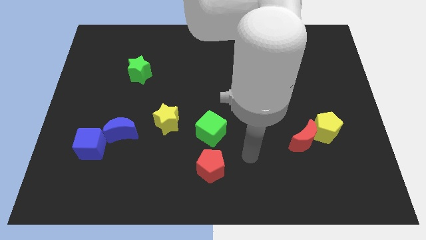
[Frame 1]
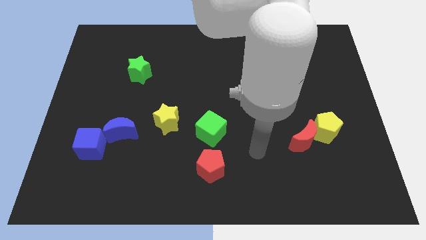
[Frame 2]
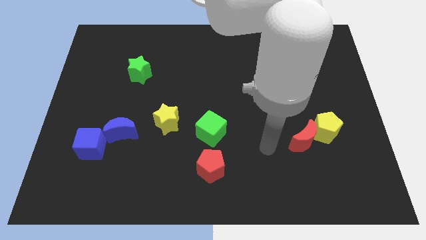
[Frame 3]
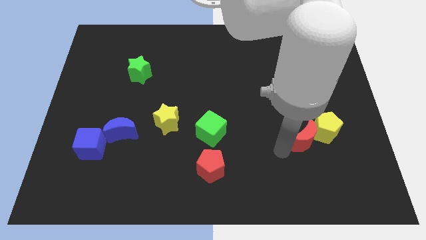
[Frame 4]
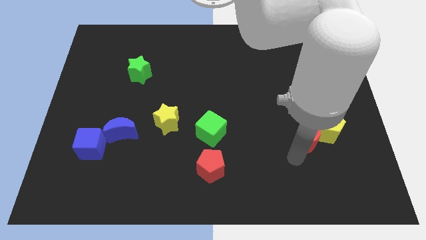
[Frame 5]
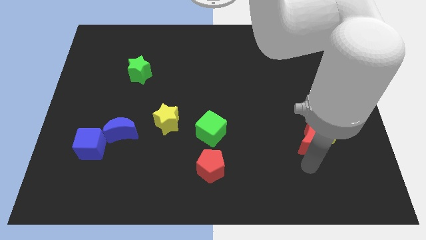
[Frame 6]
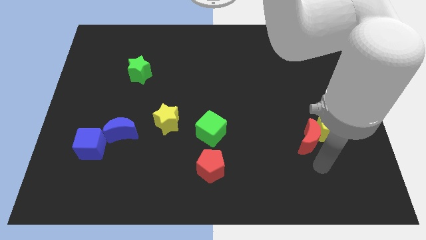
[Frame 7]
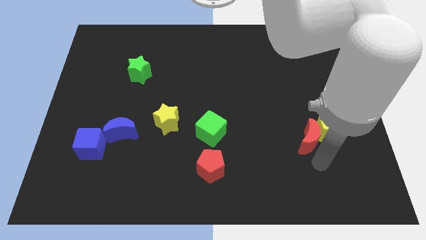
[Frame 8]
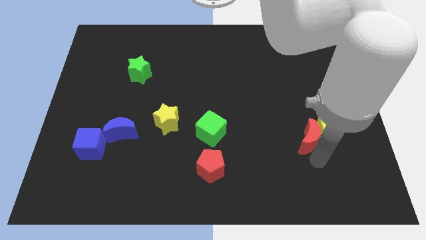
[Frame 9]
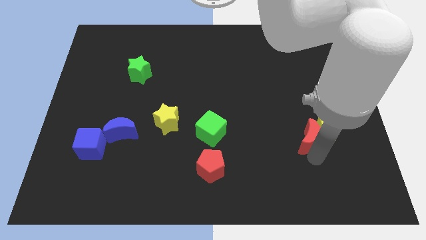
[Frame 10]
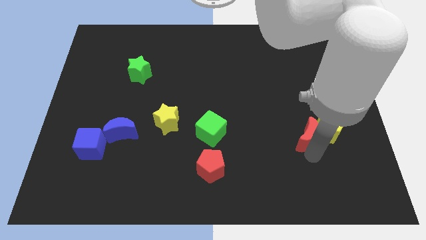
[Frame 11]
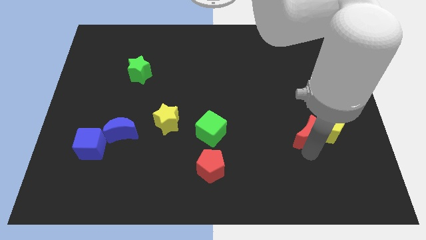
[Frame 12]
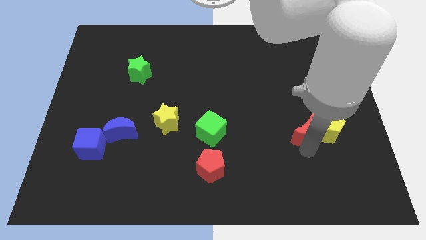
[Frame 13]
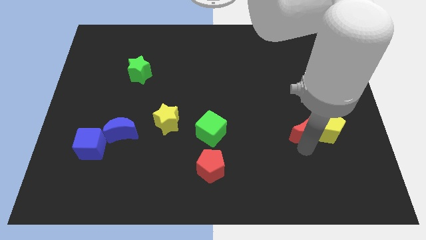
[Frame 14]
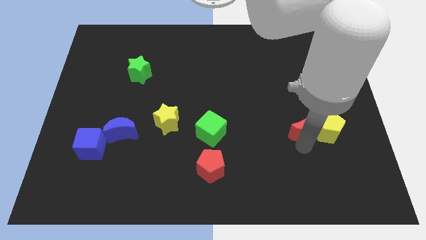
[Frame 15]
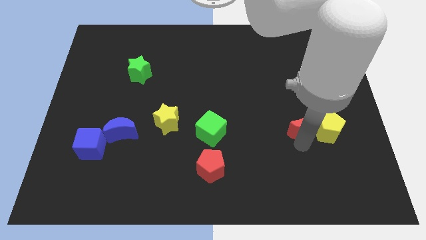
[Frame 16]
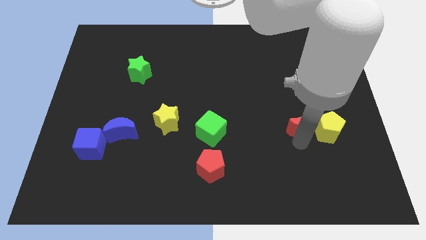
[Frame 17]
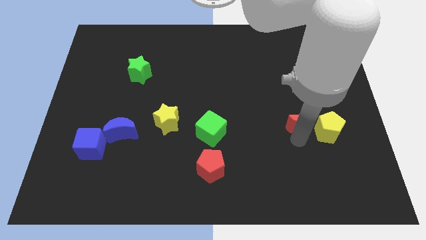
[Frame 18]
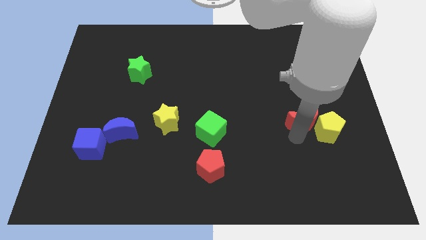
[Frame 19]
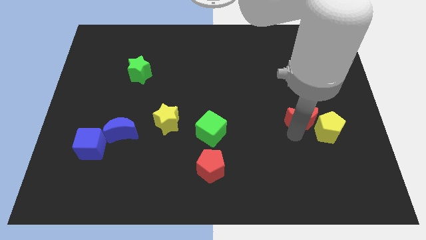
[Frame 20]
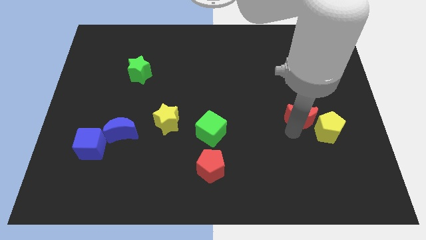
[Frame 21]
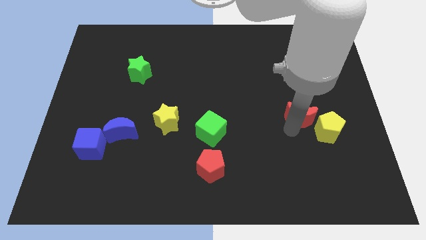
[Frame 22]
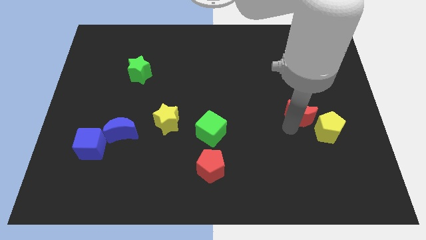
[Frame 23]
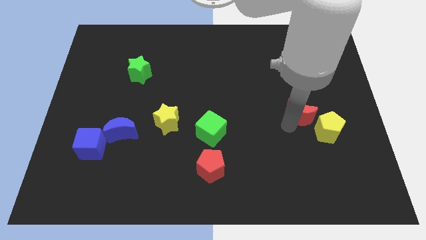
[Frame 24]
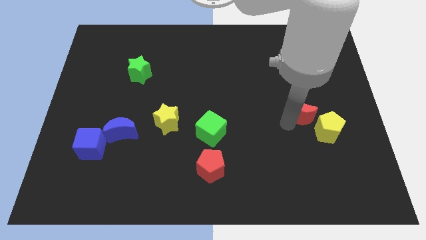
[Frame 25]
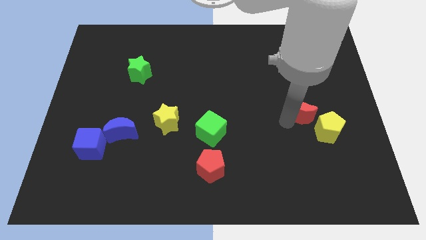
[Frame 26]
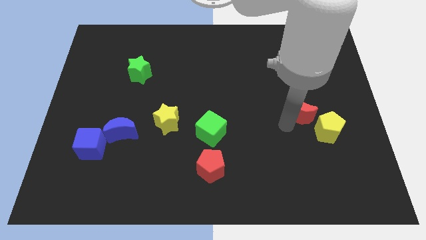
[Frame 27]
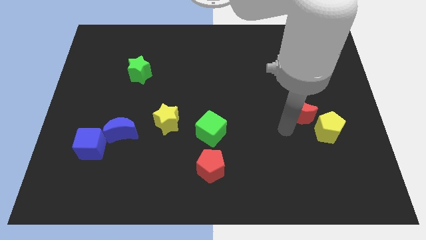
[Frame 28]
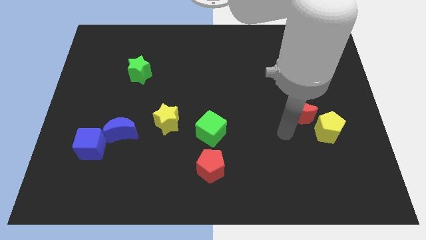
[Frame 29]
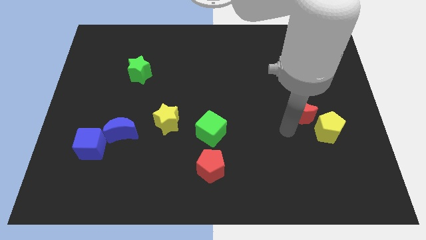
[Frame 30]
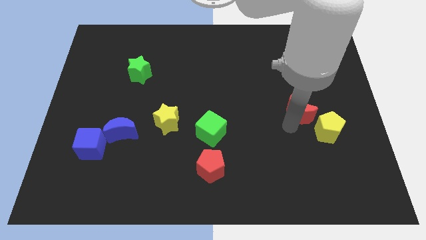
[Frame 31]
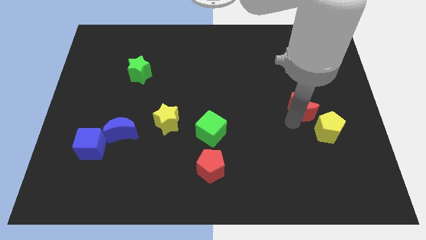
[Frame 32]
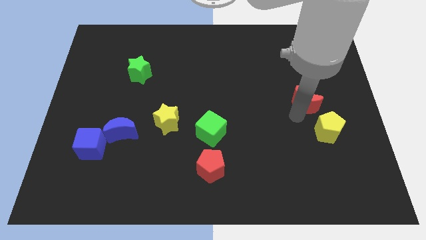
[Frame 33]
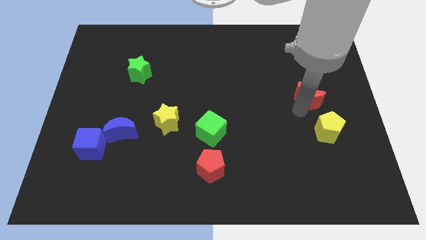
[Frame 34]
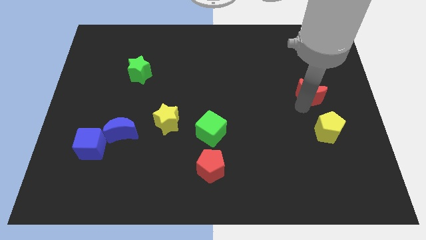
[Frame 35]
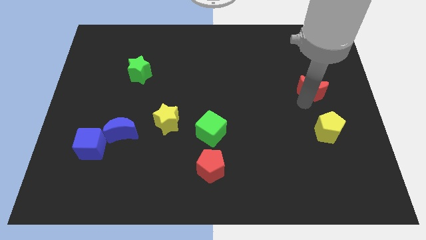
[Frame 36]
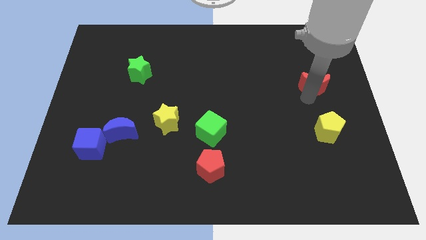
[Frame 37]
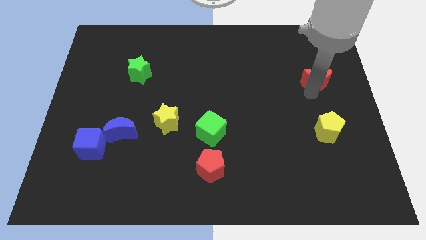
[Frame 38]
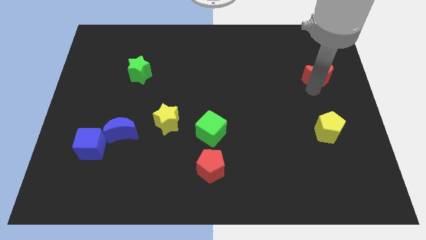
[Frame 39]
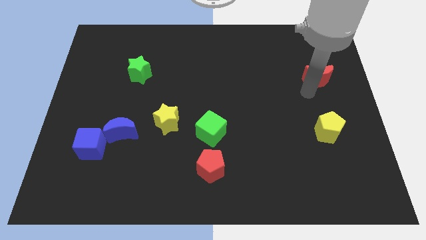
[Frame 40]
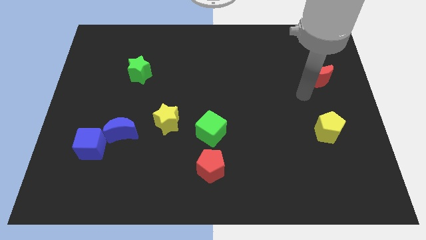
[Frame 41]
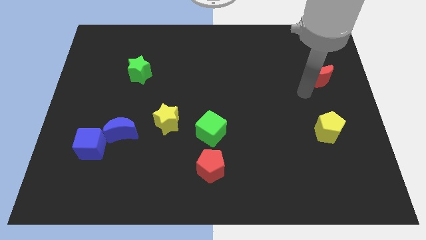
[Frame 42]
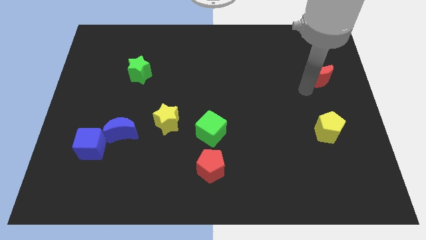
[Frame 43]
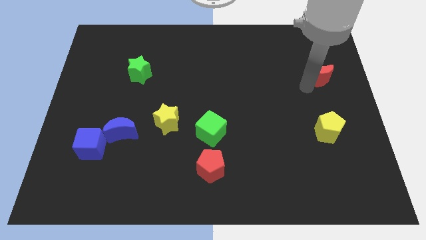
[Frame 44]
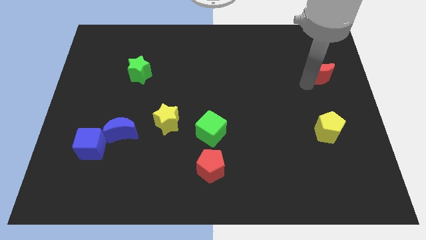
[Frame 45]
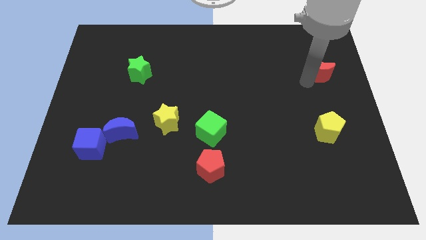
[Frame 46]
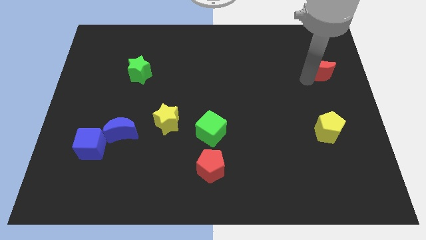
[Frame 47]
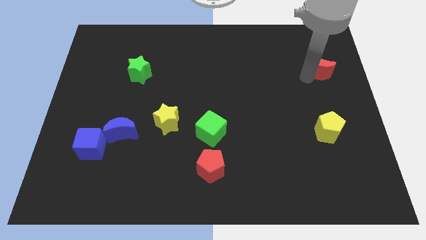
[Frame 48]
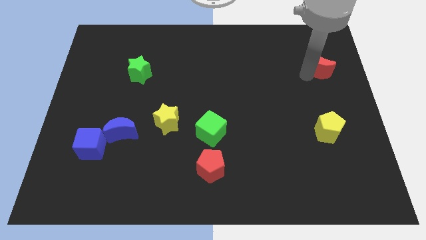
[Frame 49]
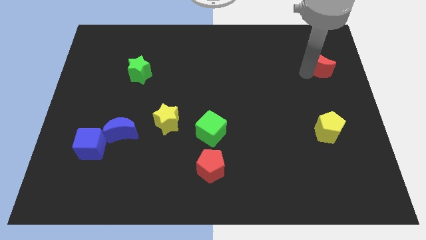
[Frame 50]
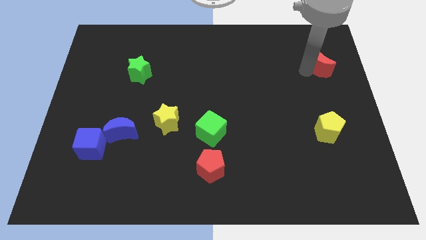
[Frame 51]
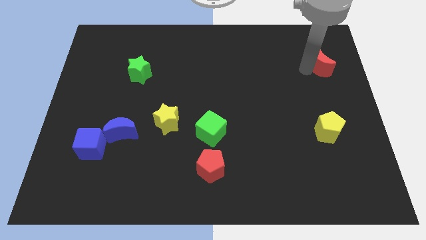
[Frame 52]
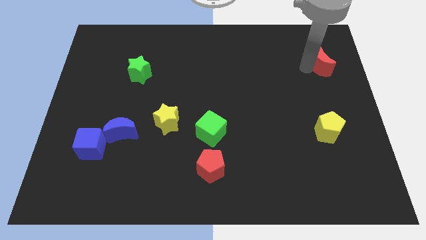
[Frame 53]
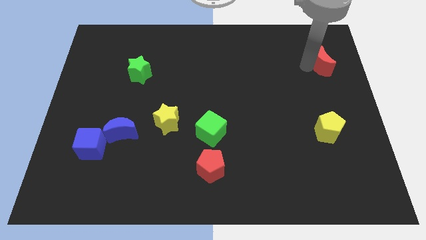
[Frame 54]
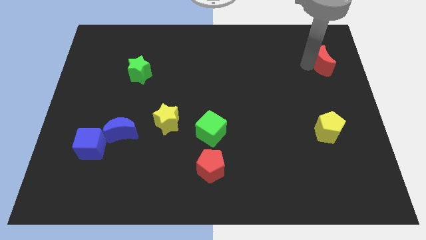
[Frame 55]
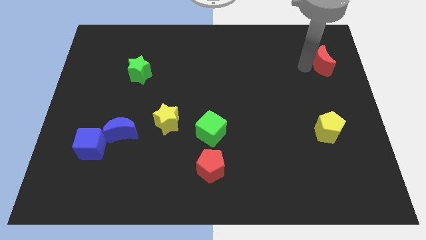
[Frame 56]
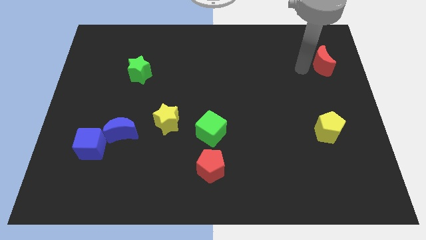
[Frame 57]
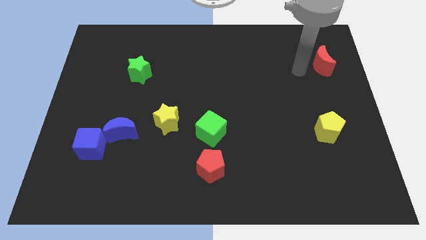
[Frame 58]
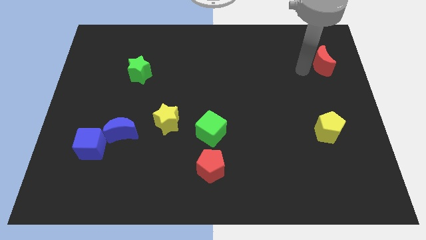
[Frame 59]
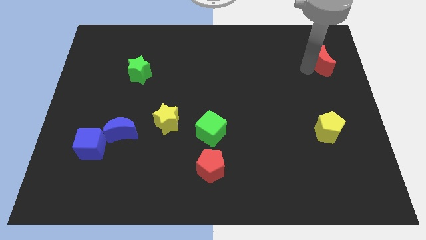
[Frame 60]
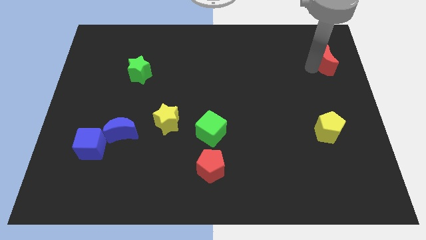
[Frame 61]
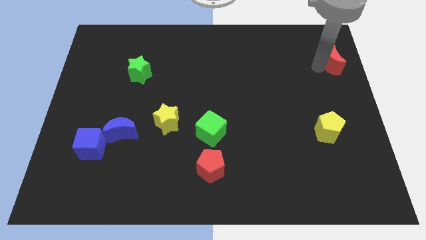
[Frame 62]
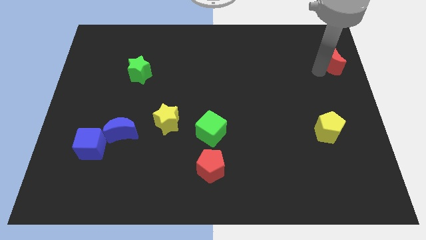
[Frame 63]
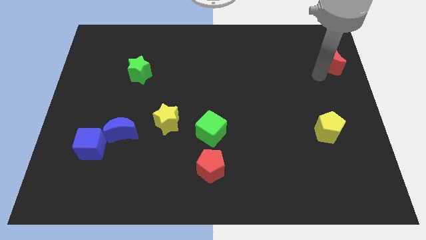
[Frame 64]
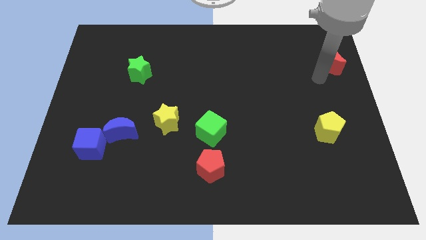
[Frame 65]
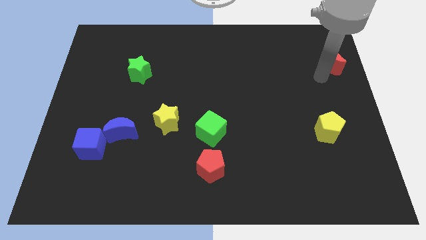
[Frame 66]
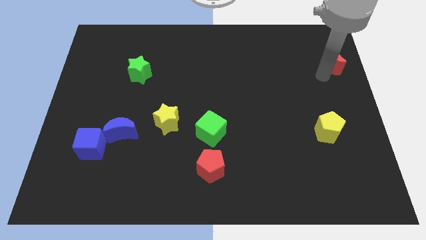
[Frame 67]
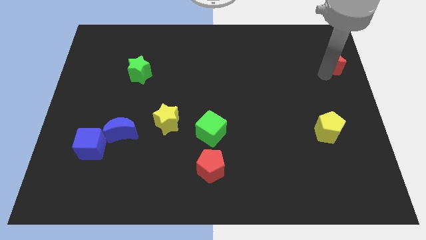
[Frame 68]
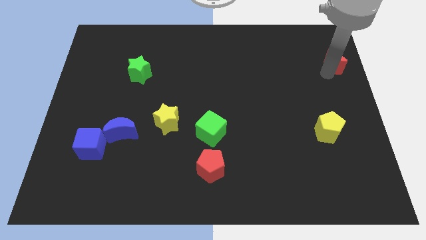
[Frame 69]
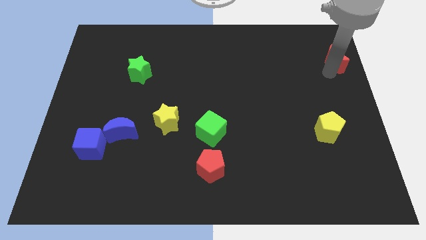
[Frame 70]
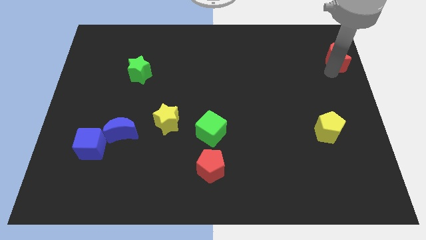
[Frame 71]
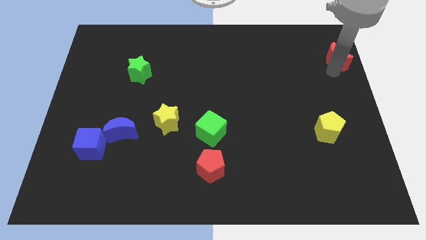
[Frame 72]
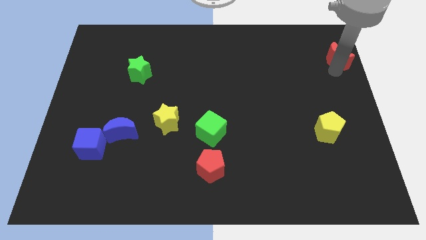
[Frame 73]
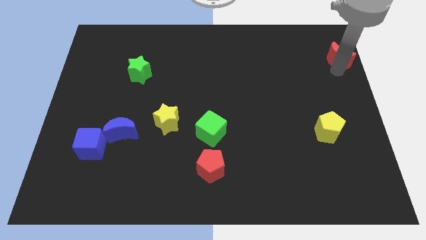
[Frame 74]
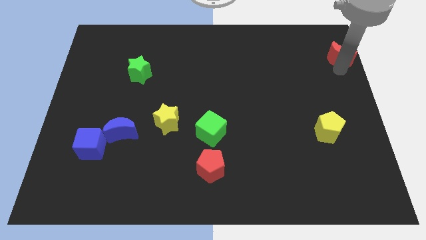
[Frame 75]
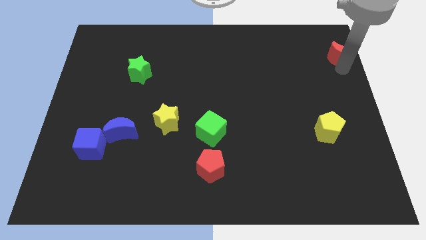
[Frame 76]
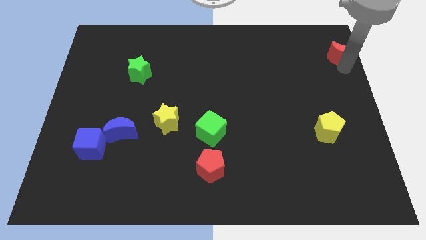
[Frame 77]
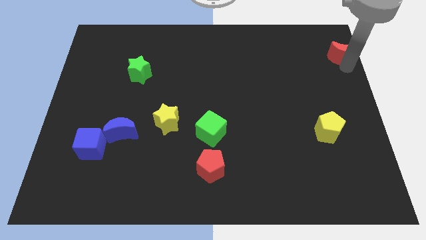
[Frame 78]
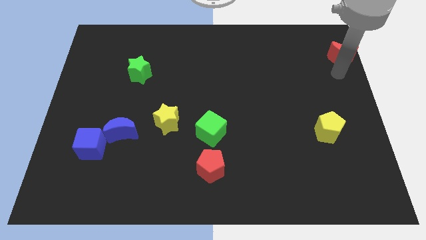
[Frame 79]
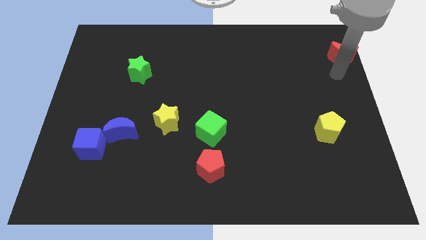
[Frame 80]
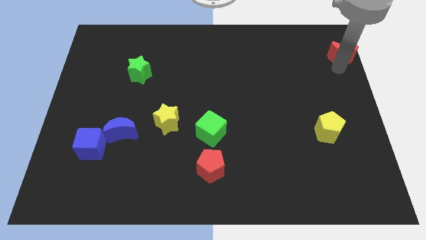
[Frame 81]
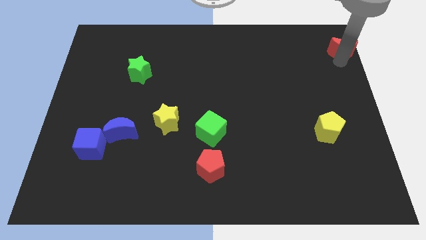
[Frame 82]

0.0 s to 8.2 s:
push the red moon to the top right corner
